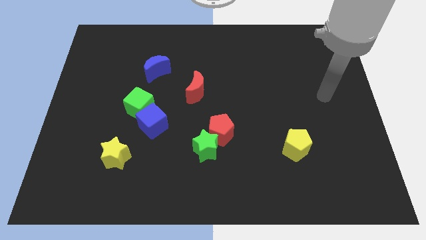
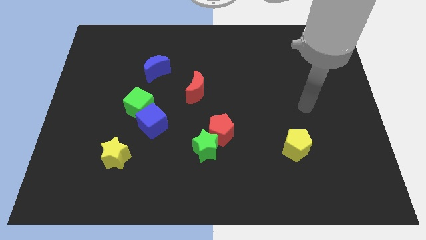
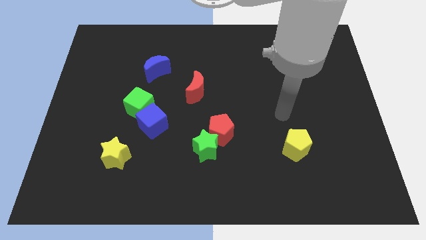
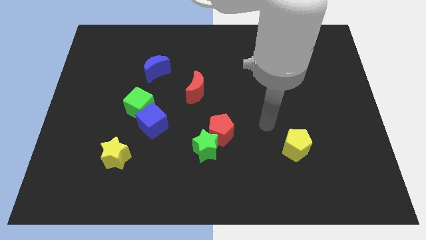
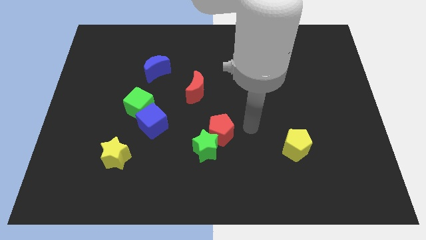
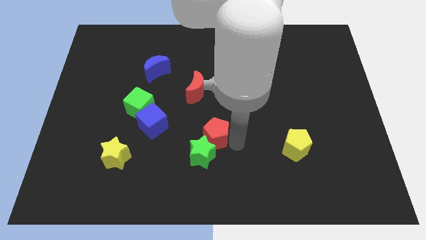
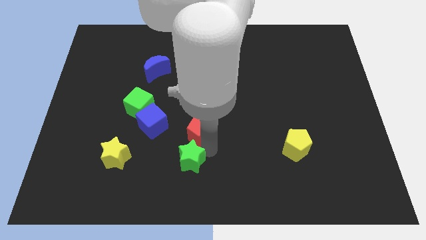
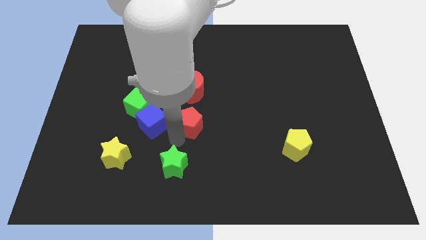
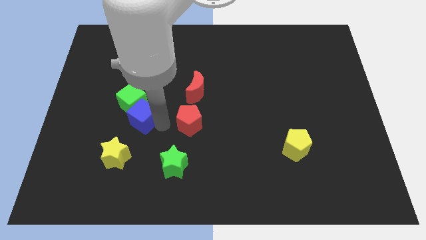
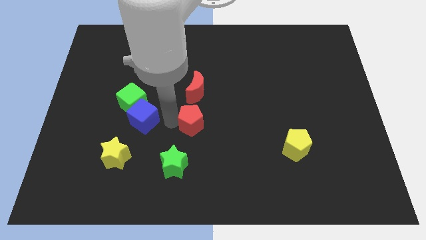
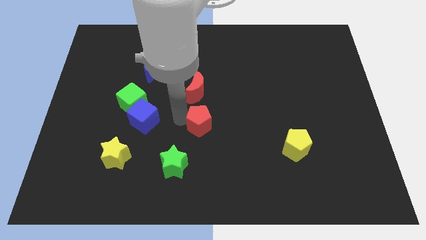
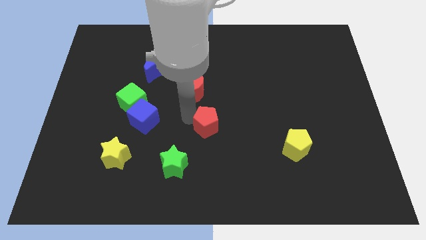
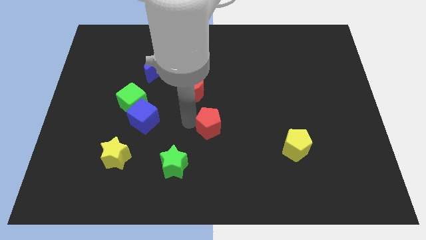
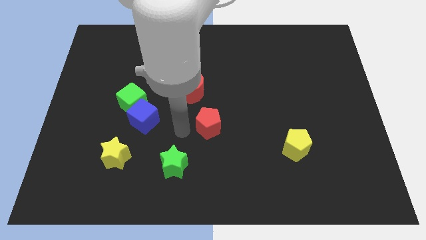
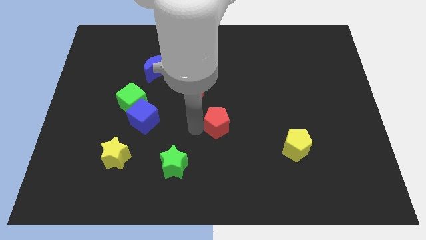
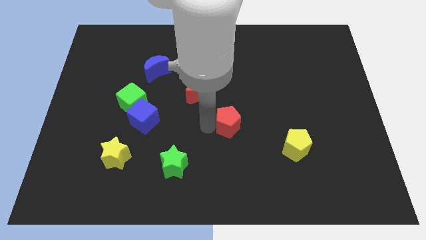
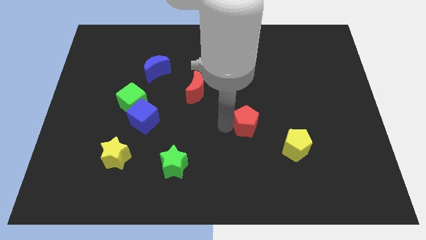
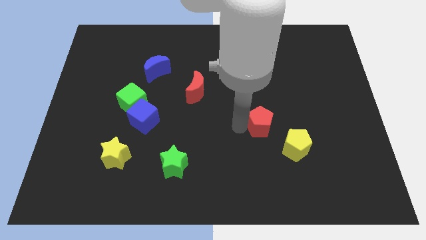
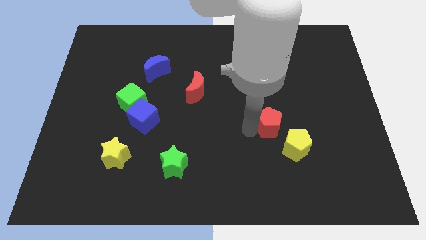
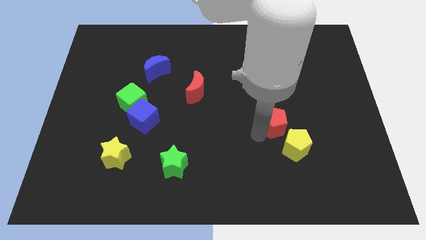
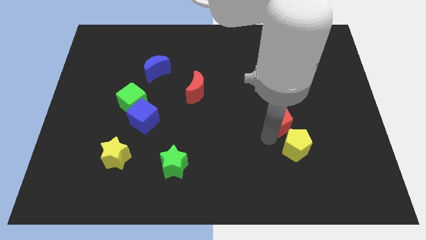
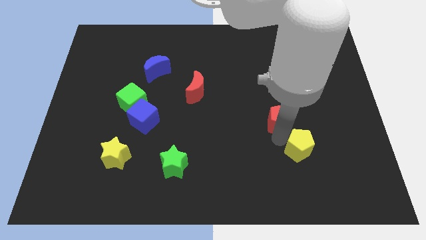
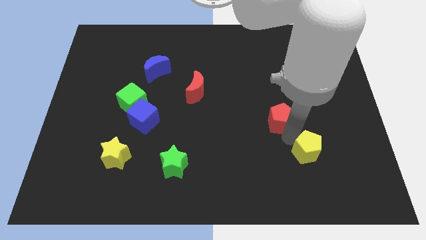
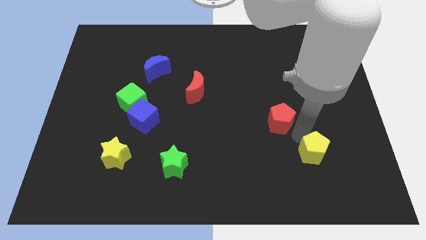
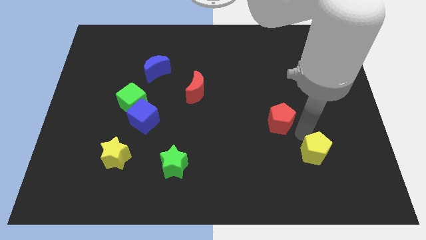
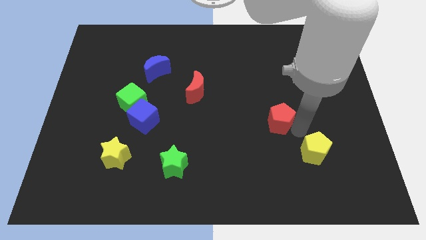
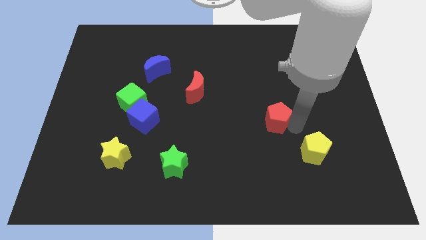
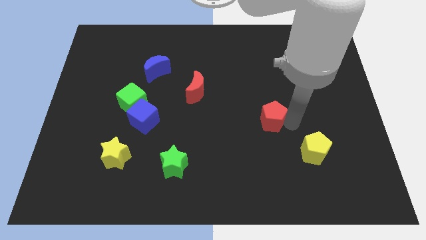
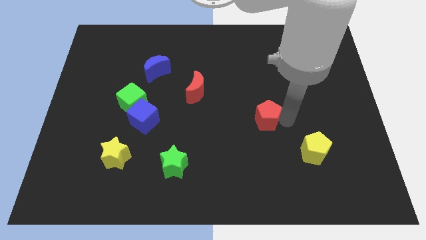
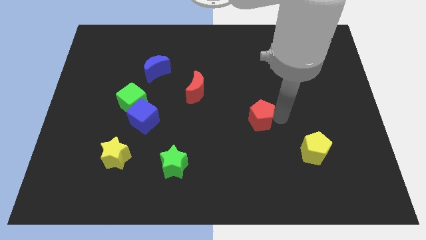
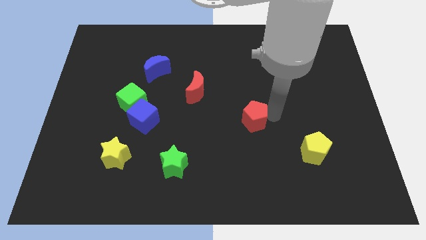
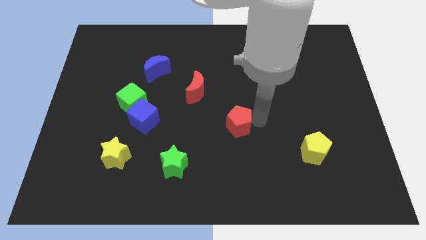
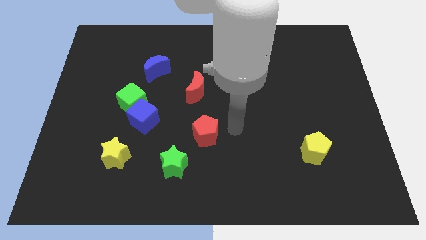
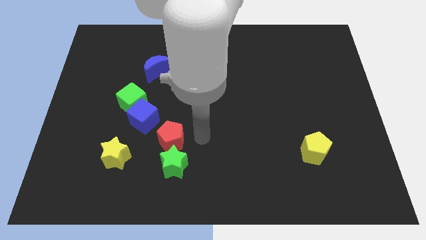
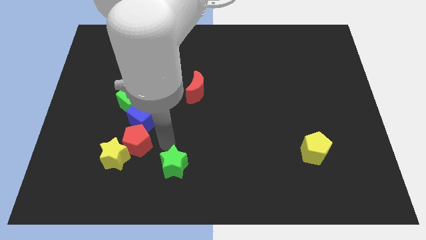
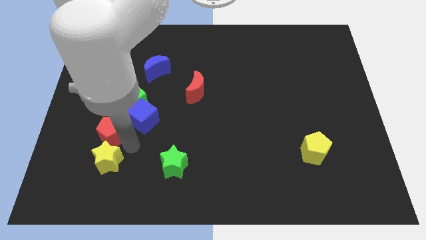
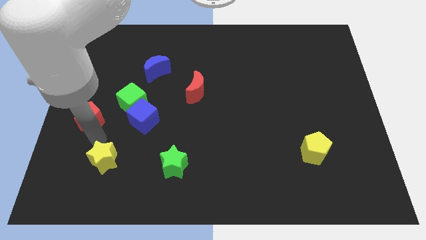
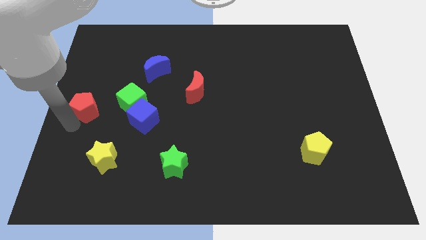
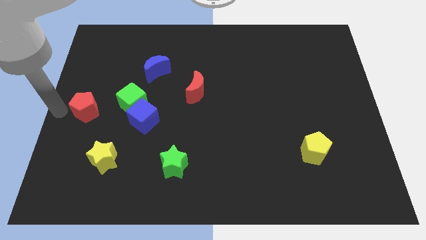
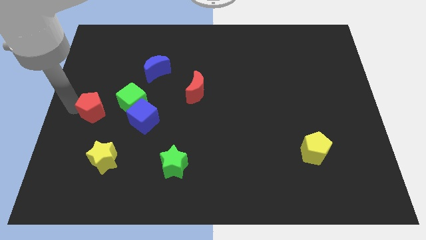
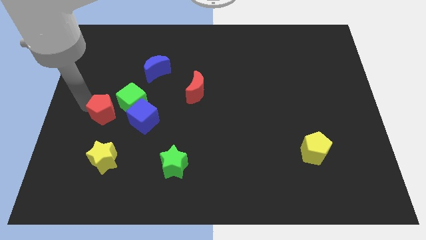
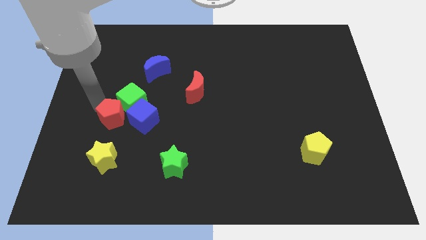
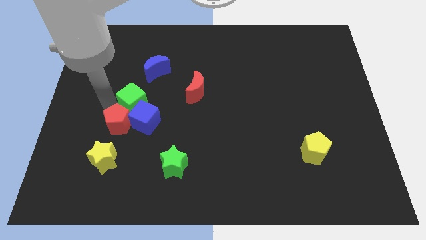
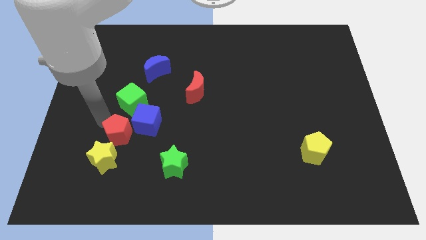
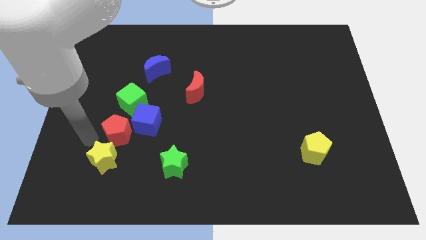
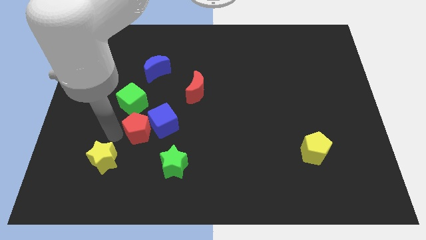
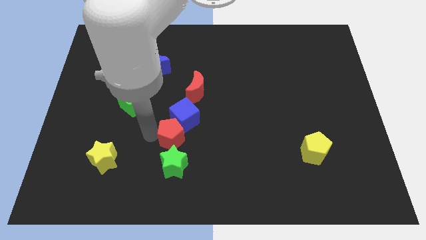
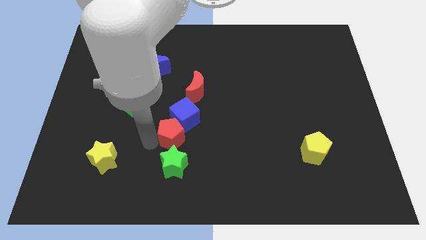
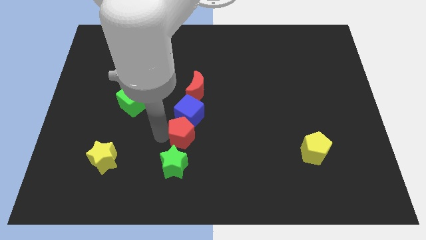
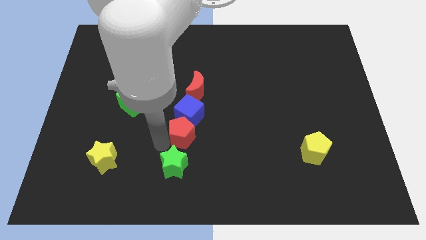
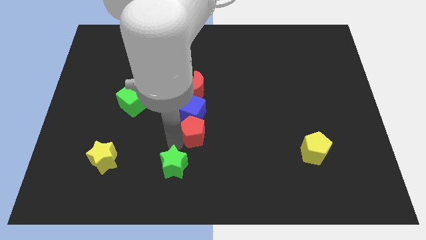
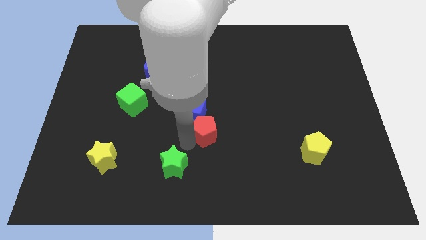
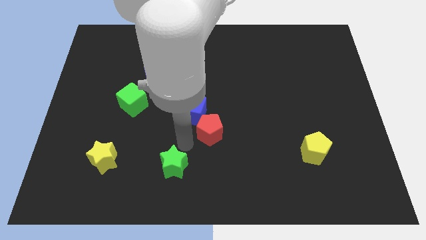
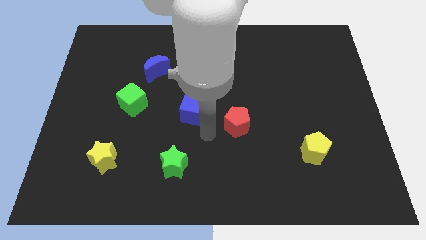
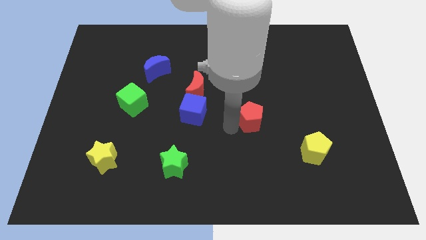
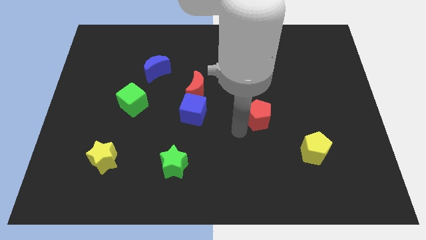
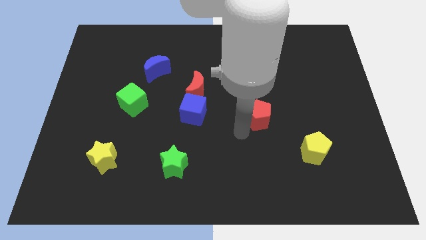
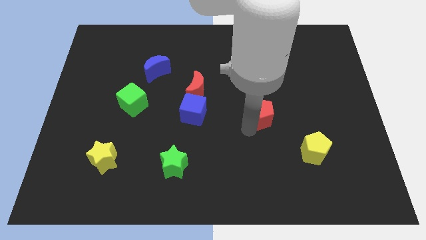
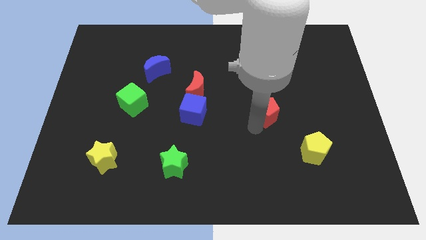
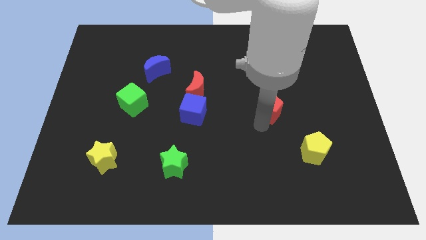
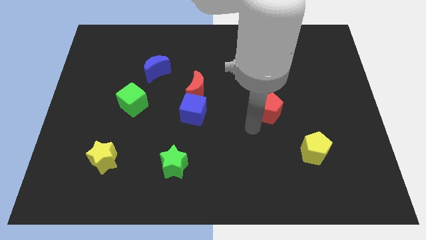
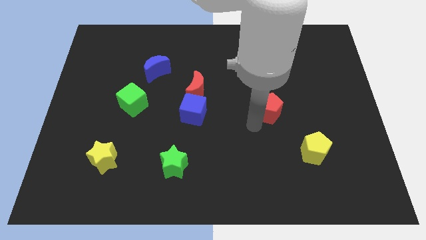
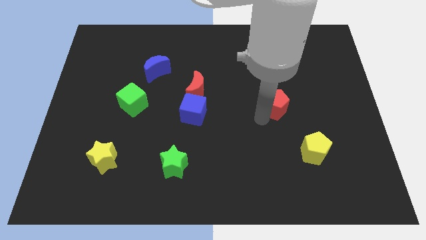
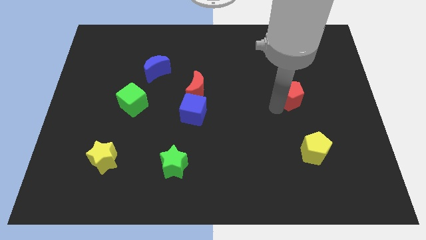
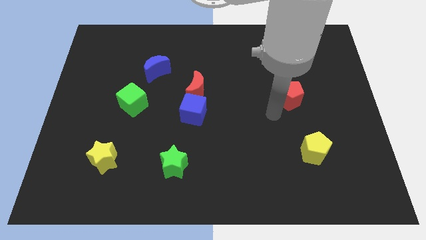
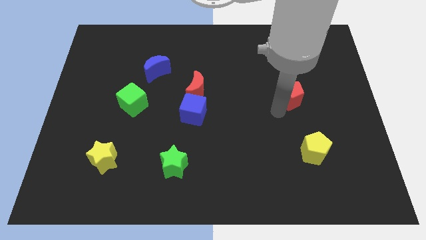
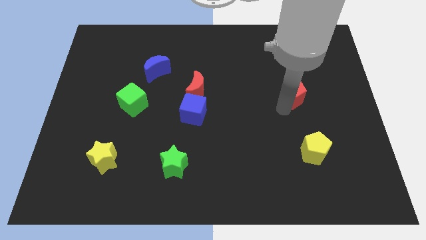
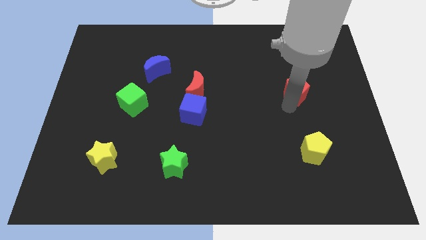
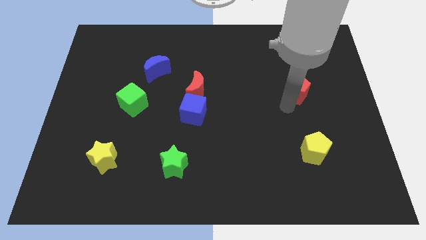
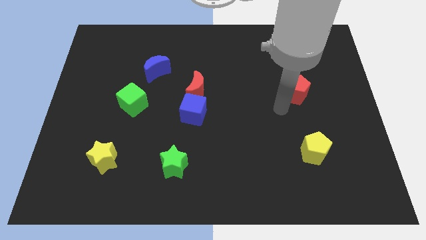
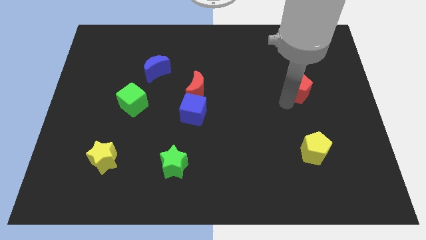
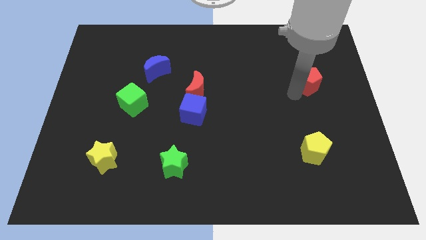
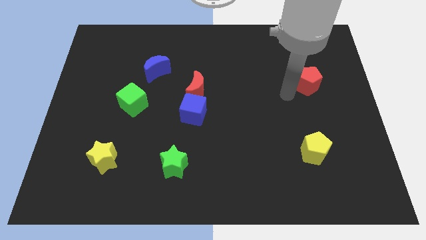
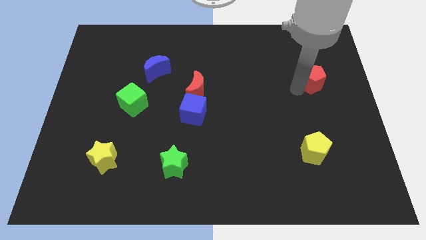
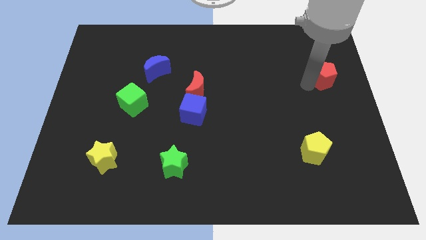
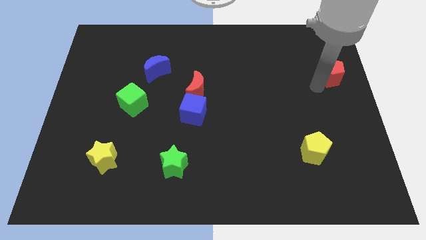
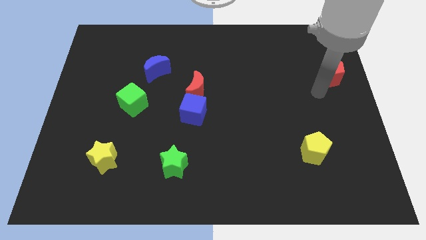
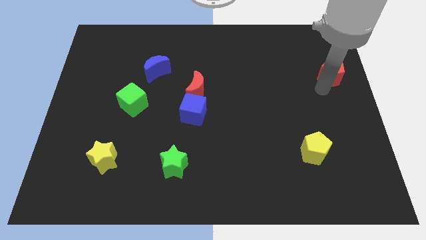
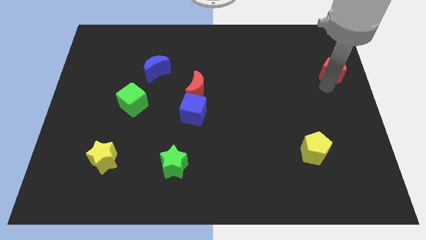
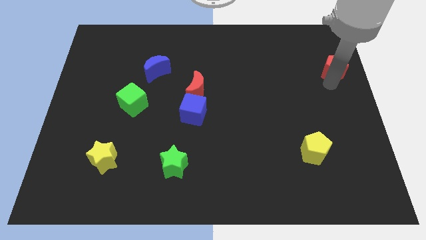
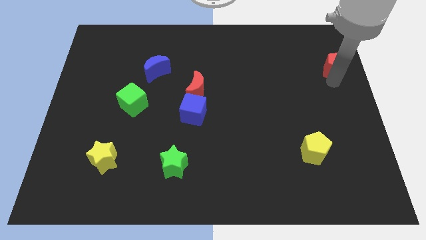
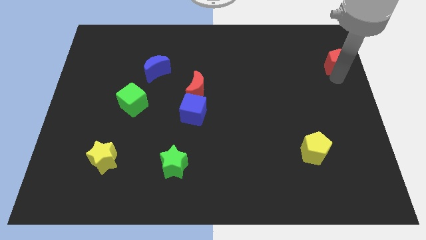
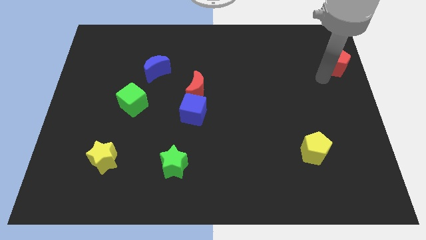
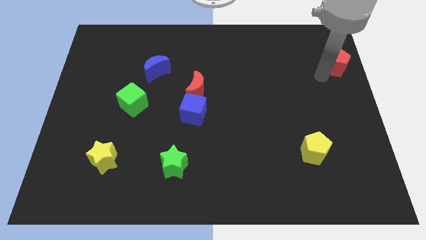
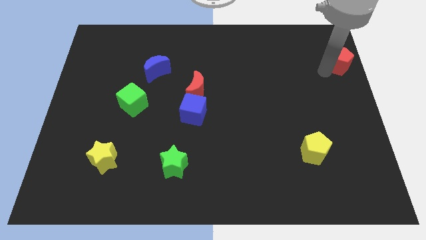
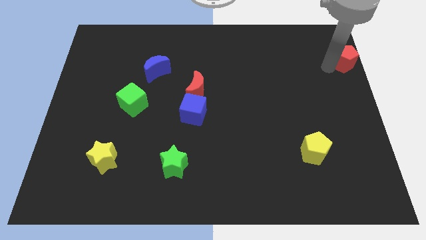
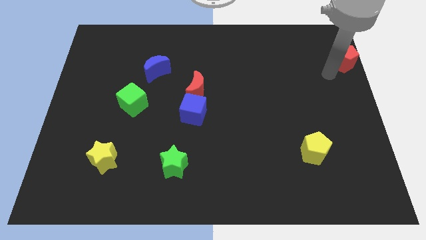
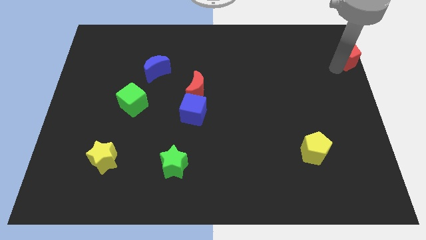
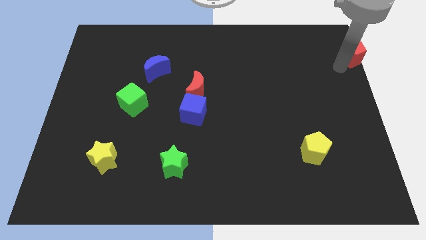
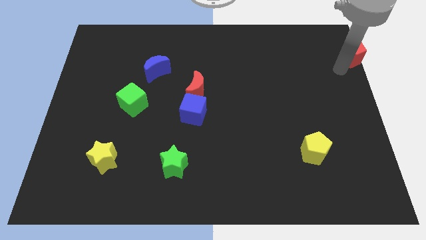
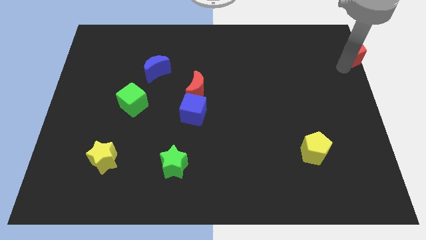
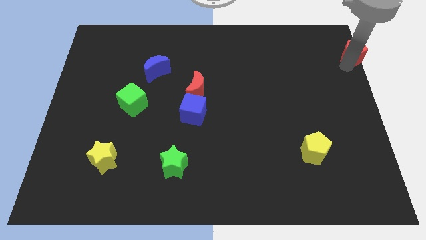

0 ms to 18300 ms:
put the red pentagon to the top right of the board
